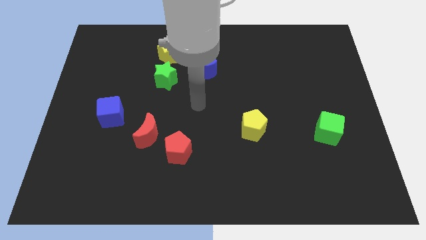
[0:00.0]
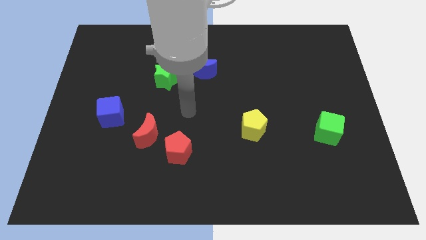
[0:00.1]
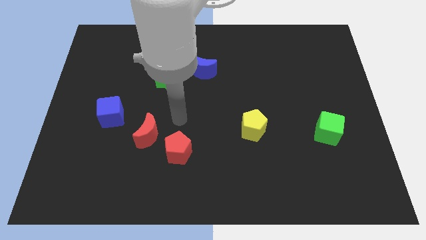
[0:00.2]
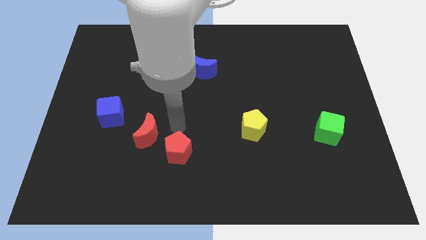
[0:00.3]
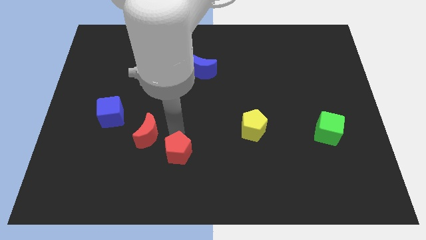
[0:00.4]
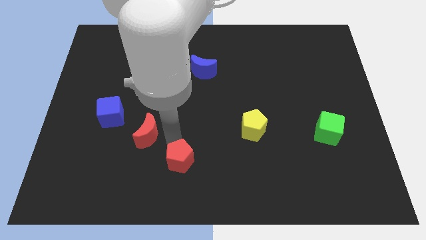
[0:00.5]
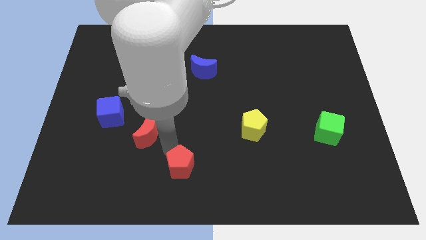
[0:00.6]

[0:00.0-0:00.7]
separate the red moon from the red pentagon

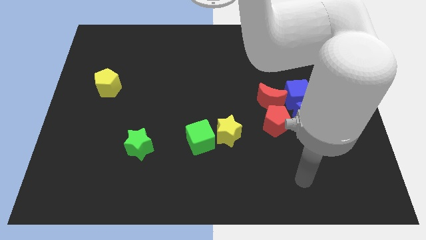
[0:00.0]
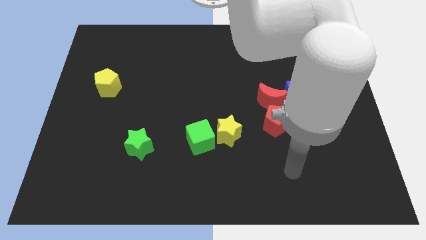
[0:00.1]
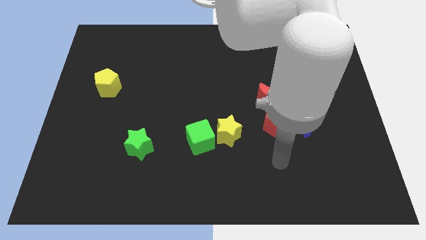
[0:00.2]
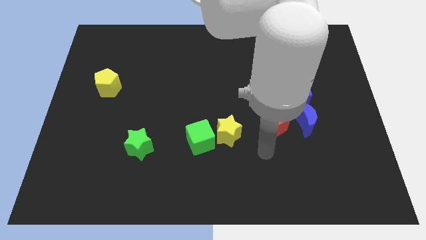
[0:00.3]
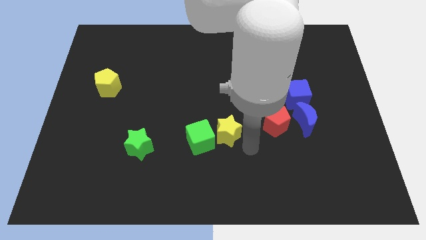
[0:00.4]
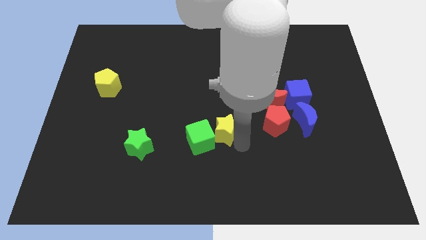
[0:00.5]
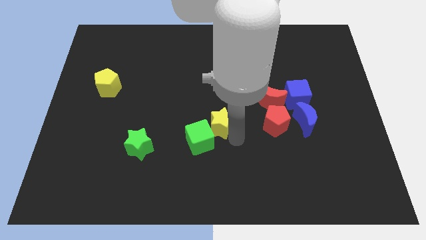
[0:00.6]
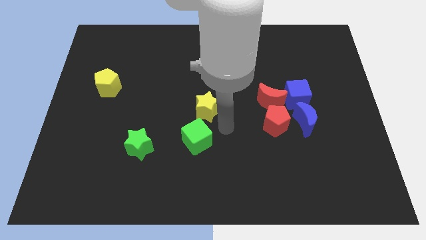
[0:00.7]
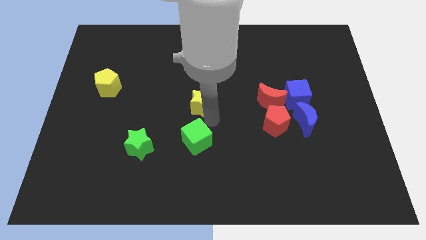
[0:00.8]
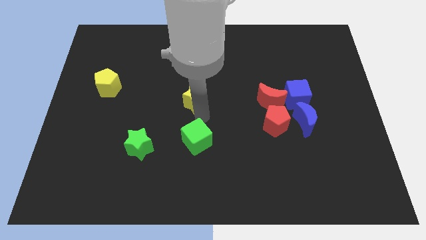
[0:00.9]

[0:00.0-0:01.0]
separate the green cube from the yellow star

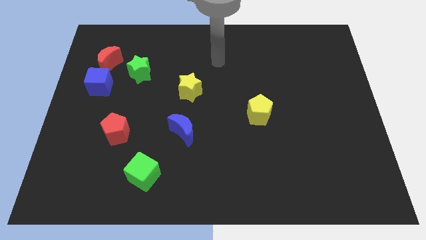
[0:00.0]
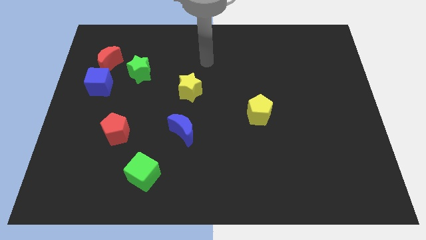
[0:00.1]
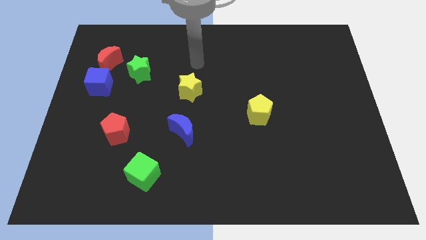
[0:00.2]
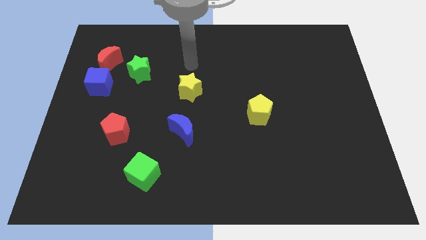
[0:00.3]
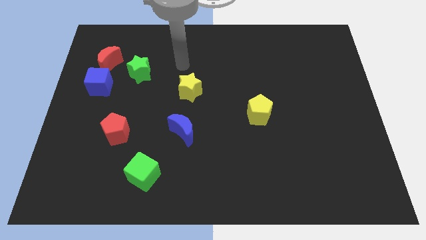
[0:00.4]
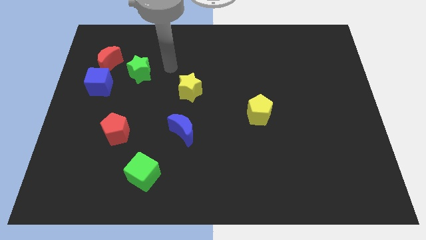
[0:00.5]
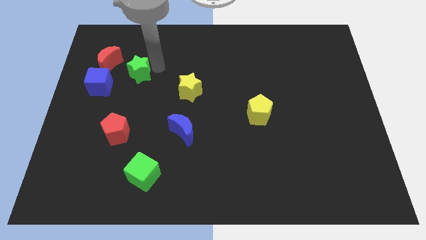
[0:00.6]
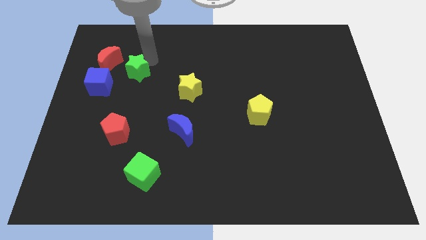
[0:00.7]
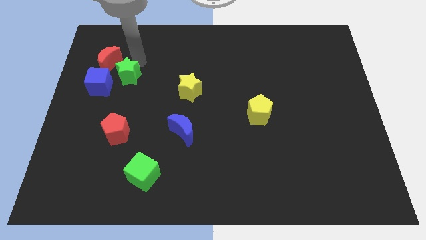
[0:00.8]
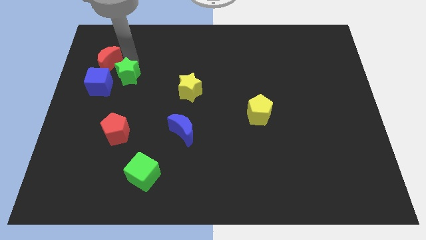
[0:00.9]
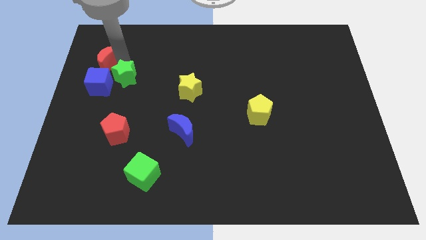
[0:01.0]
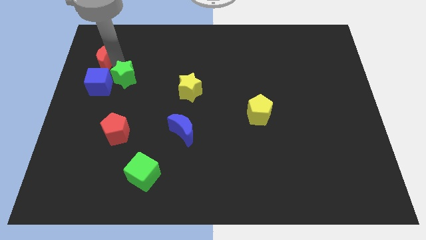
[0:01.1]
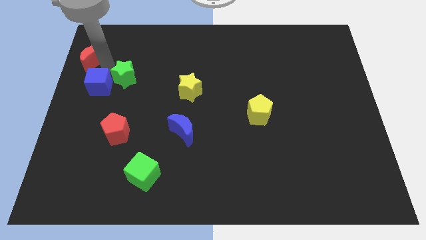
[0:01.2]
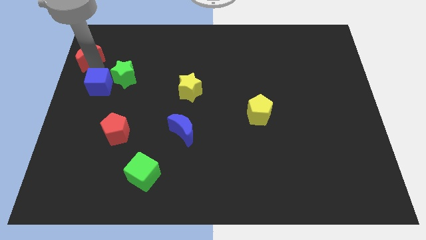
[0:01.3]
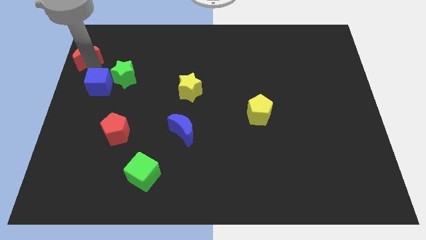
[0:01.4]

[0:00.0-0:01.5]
pull the blue cube apart from the red moon

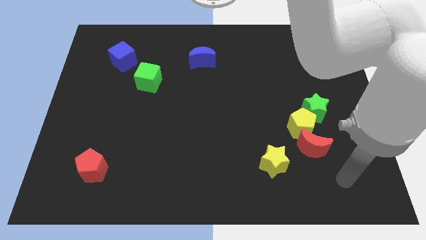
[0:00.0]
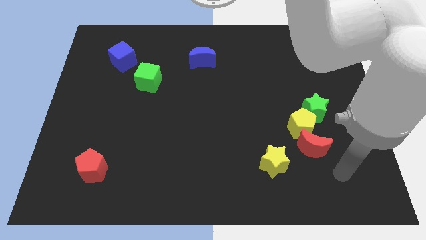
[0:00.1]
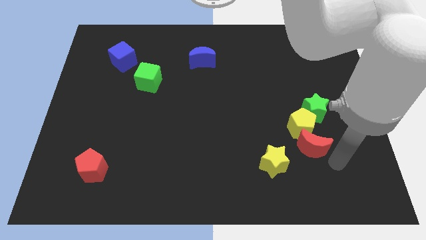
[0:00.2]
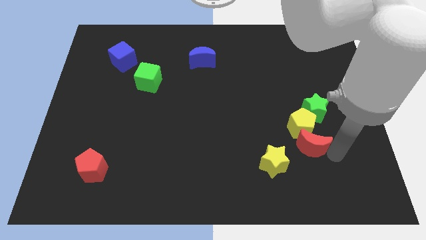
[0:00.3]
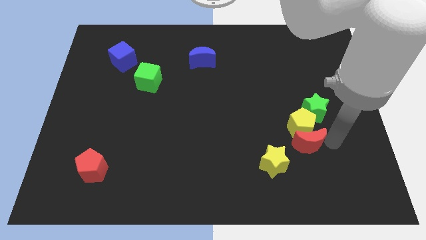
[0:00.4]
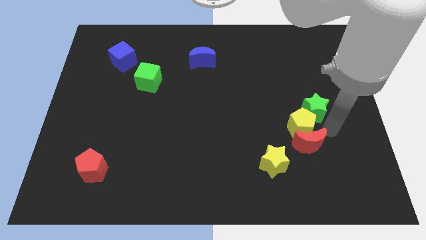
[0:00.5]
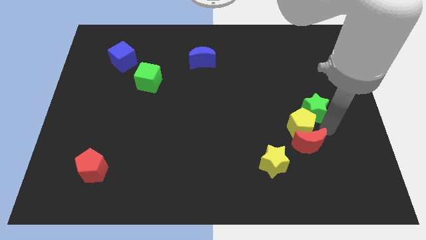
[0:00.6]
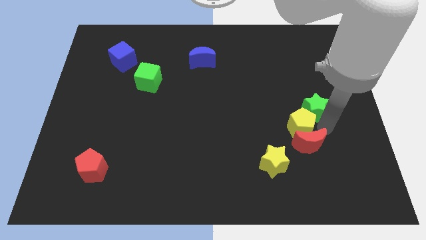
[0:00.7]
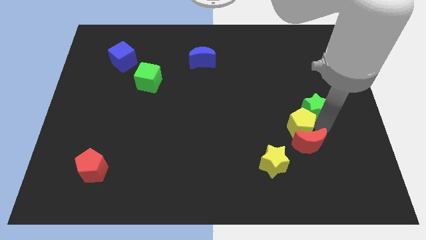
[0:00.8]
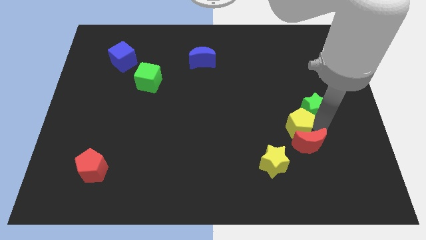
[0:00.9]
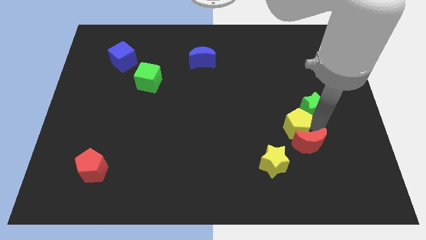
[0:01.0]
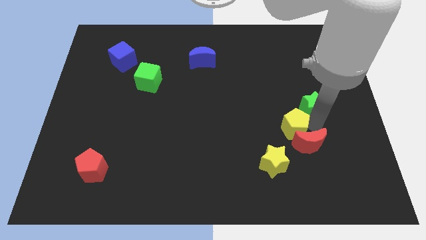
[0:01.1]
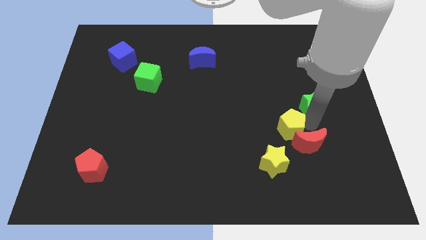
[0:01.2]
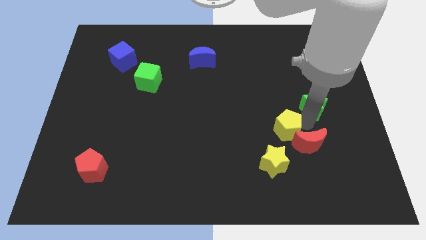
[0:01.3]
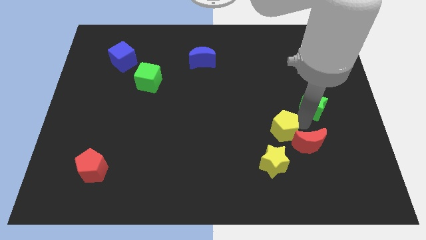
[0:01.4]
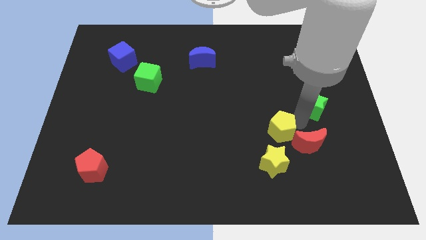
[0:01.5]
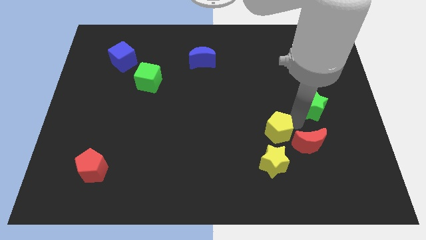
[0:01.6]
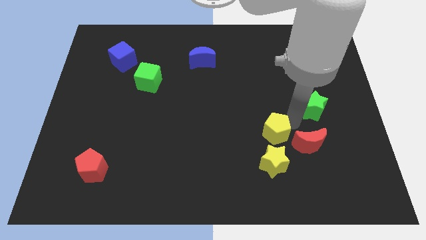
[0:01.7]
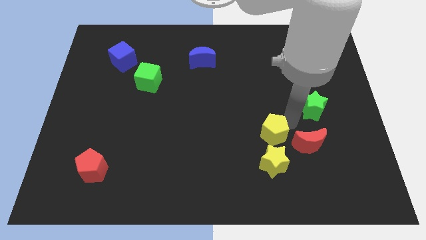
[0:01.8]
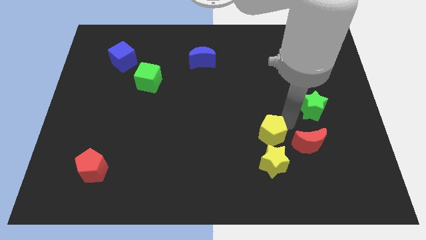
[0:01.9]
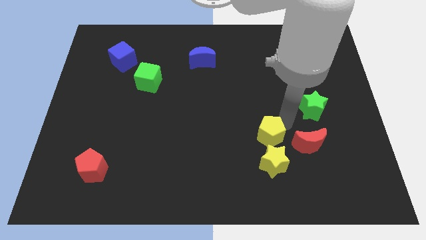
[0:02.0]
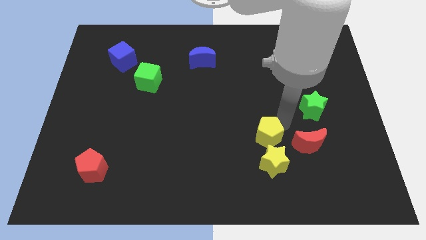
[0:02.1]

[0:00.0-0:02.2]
separate the yellow pentagon from the green star and red moon

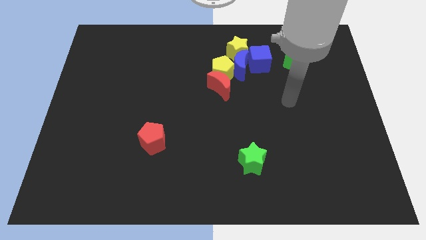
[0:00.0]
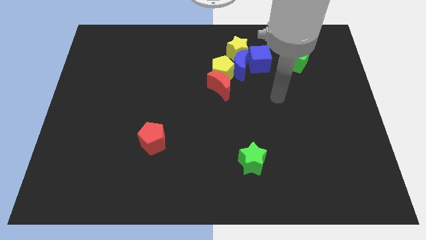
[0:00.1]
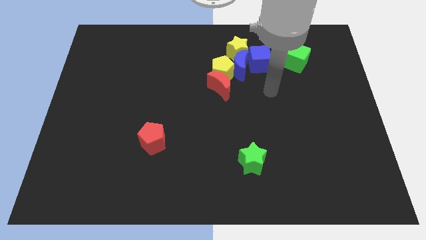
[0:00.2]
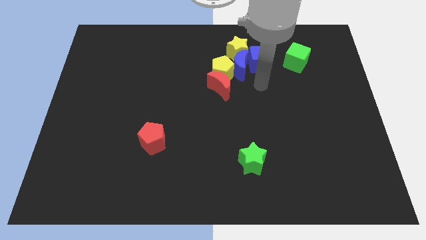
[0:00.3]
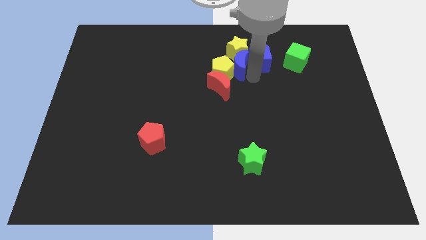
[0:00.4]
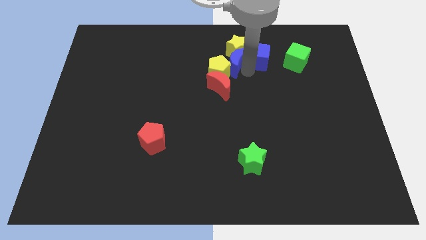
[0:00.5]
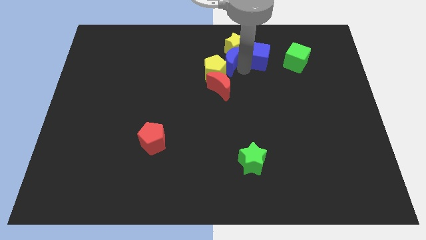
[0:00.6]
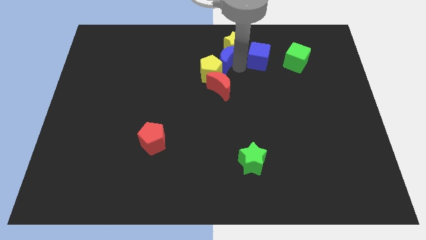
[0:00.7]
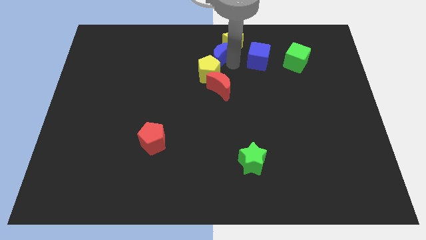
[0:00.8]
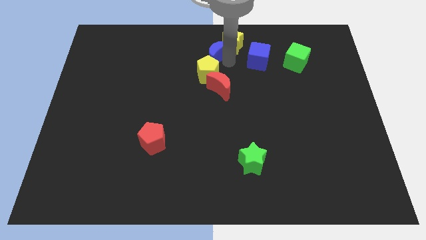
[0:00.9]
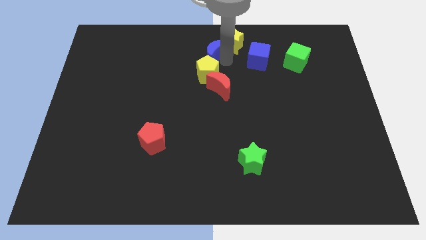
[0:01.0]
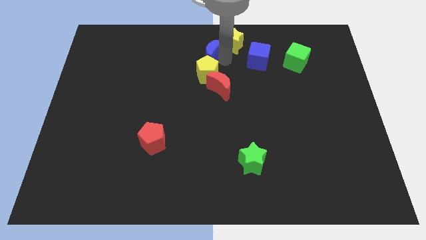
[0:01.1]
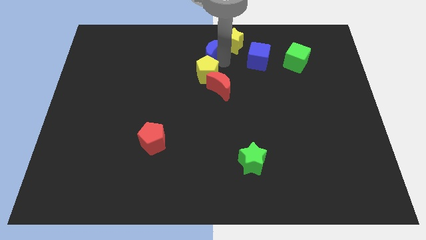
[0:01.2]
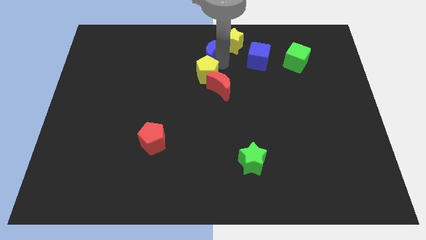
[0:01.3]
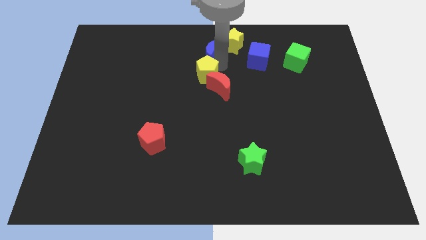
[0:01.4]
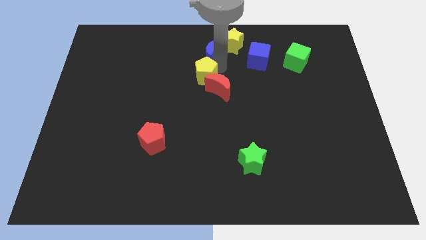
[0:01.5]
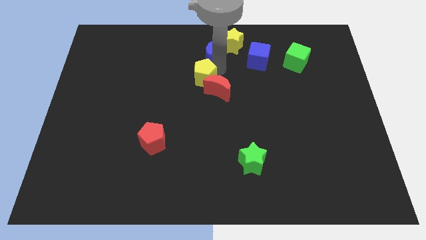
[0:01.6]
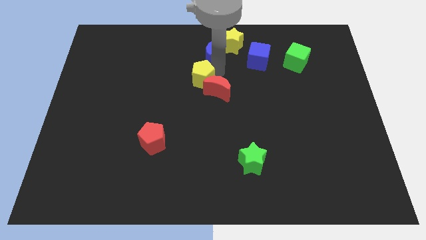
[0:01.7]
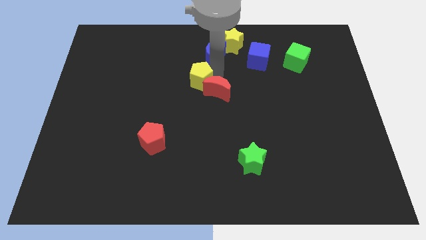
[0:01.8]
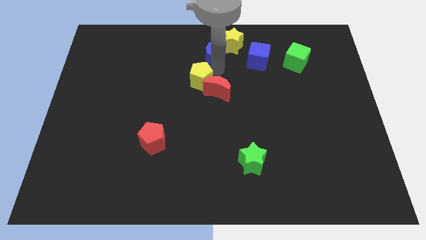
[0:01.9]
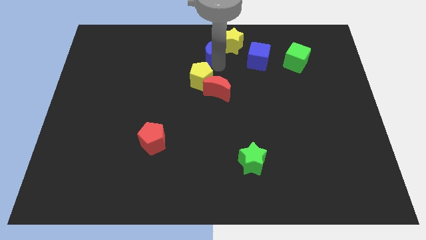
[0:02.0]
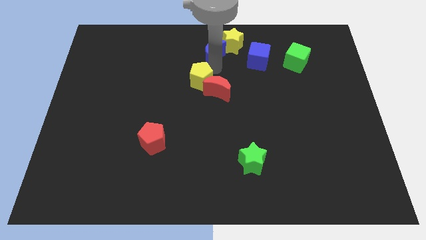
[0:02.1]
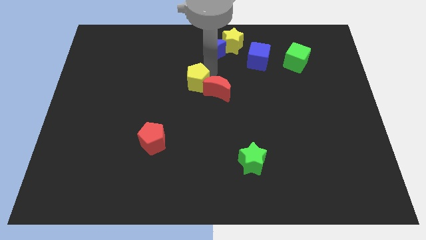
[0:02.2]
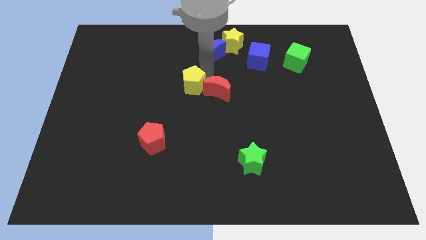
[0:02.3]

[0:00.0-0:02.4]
separate the yellow pentagon from the red moon, blue moon, and yellow star

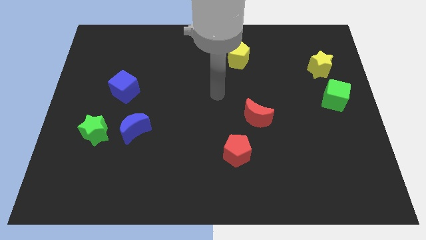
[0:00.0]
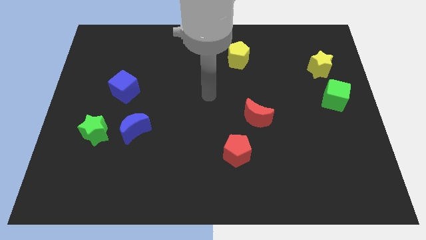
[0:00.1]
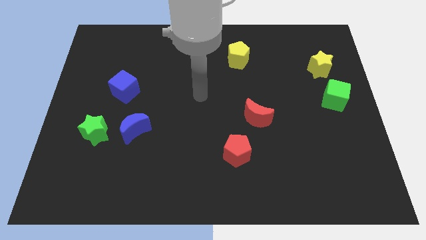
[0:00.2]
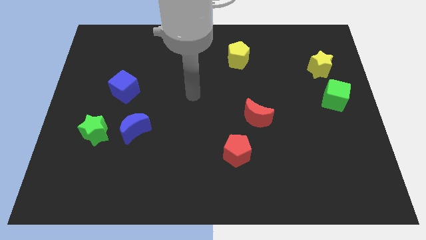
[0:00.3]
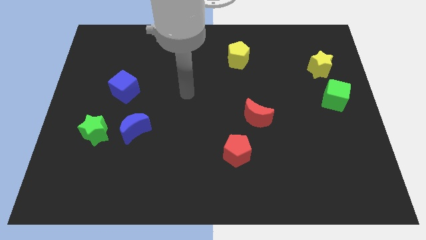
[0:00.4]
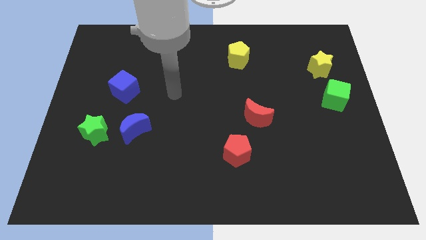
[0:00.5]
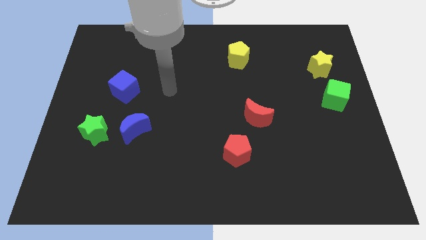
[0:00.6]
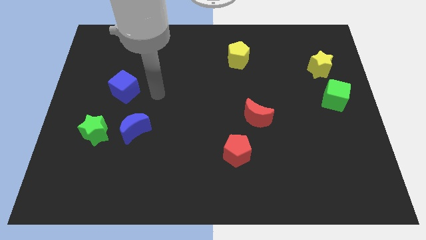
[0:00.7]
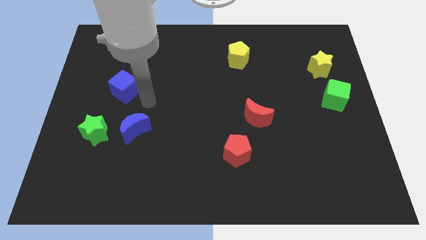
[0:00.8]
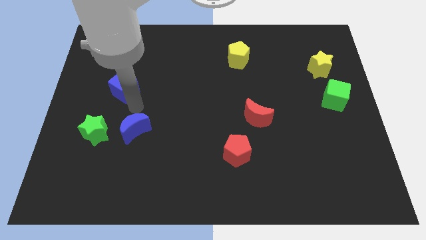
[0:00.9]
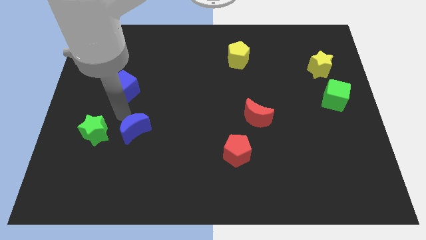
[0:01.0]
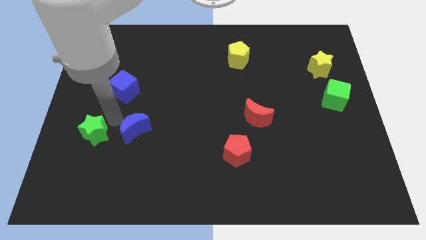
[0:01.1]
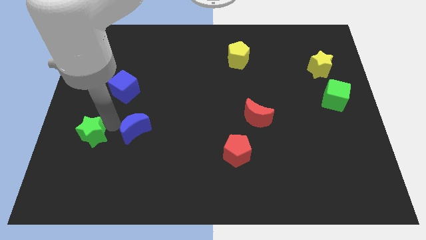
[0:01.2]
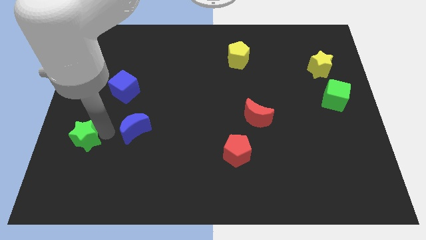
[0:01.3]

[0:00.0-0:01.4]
pull the blue moon apart from the green star

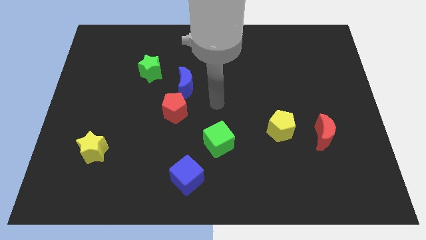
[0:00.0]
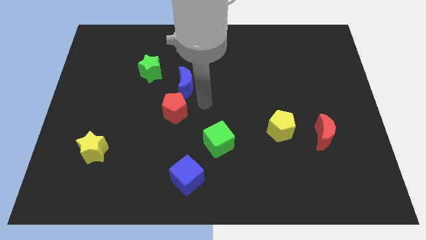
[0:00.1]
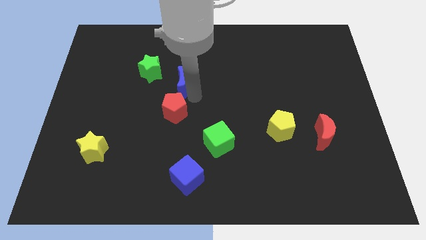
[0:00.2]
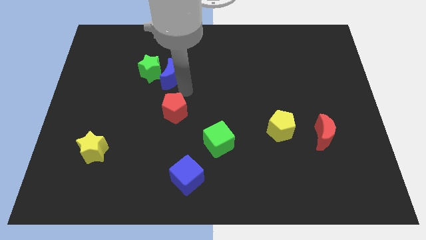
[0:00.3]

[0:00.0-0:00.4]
separate the red pentagon from the blue moon
